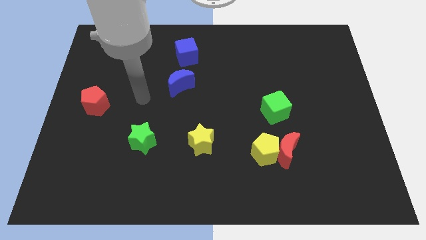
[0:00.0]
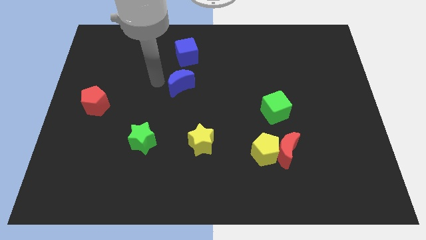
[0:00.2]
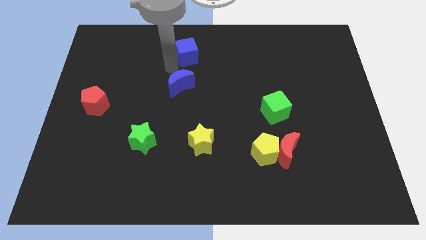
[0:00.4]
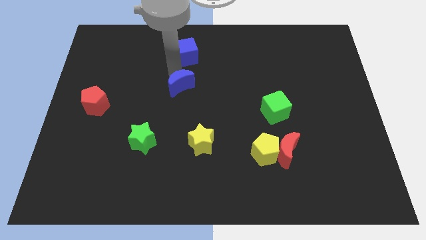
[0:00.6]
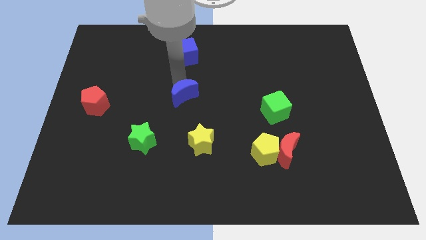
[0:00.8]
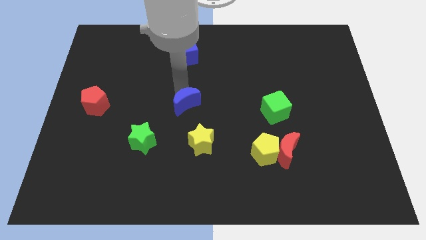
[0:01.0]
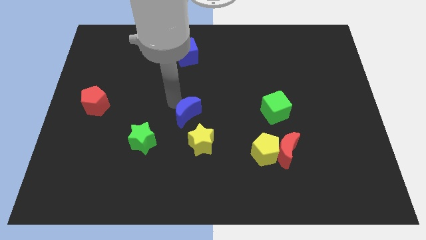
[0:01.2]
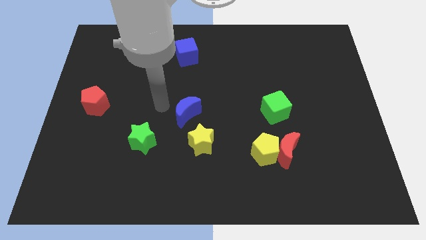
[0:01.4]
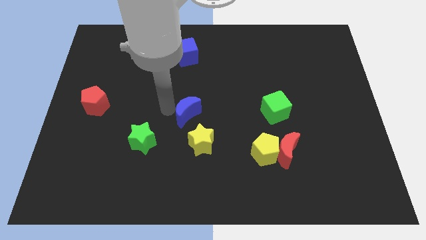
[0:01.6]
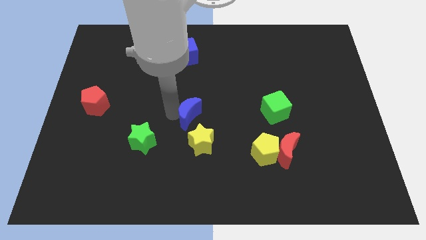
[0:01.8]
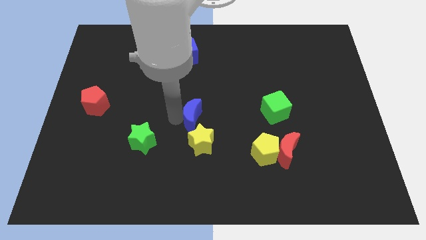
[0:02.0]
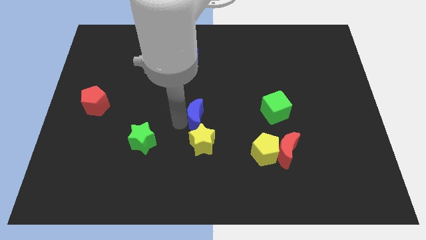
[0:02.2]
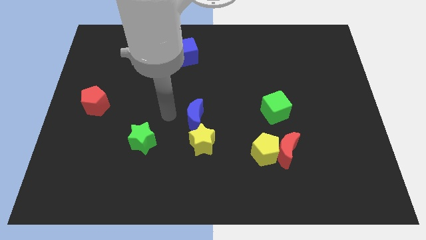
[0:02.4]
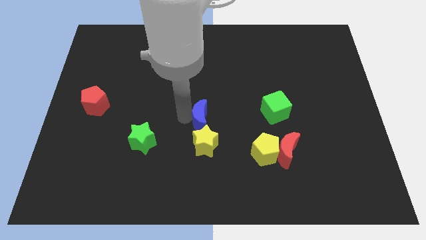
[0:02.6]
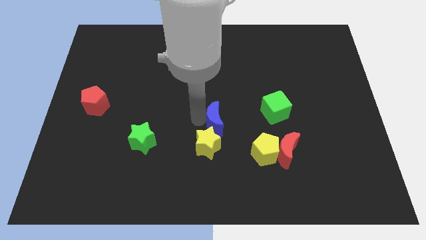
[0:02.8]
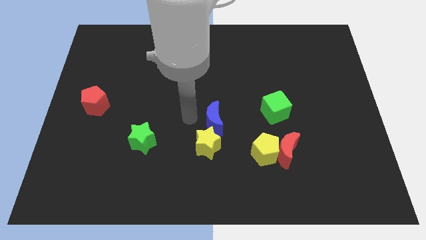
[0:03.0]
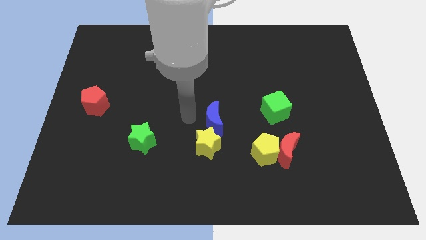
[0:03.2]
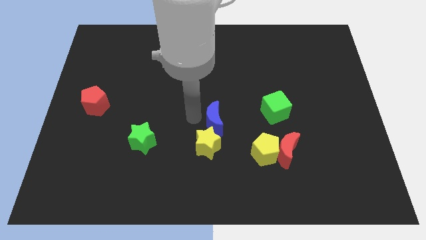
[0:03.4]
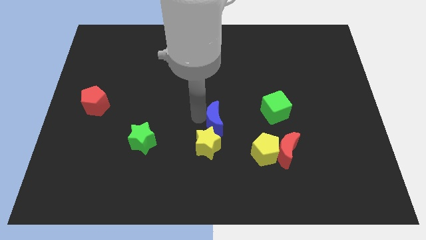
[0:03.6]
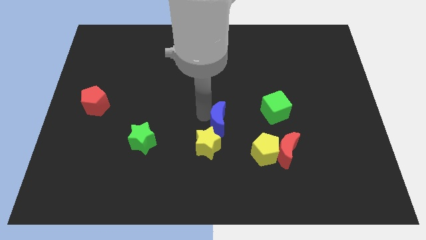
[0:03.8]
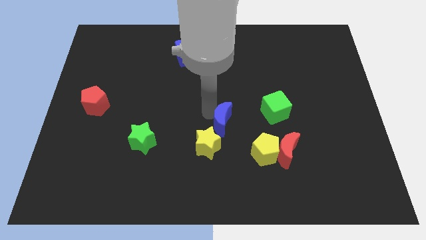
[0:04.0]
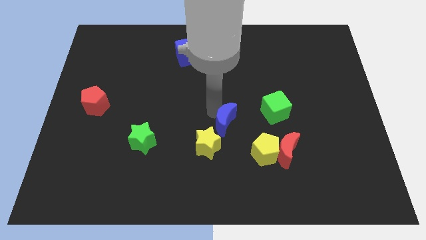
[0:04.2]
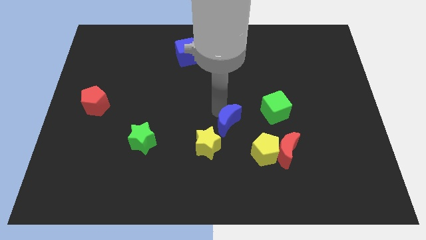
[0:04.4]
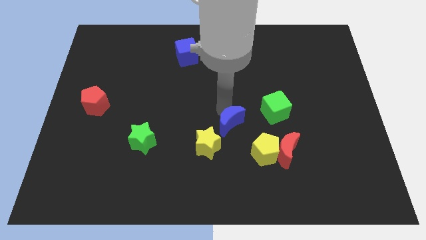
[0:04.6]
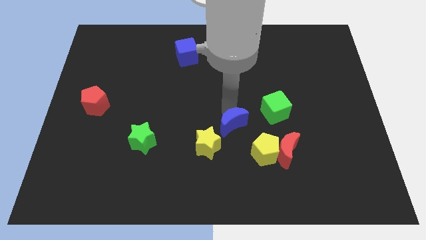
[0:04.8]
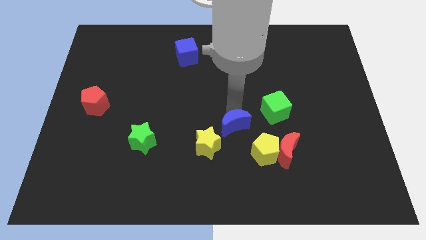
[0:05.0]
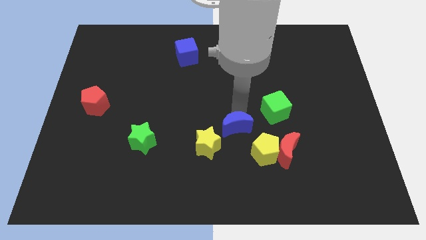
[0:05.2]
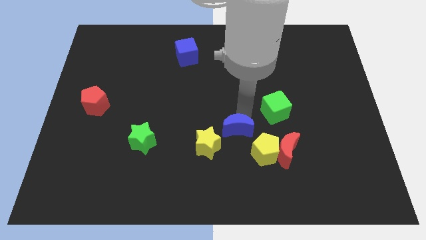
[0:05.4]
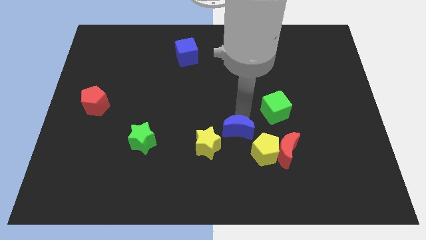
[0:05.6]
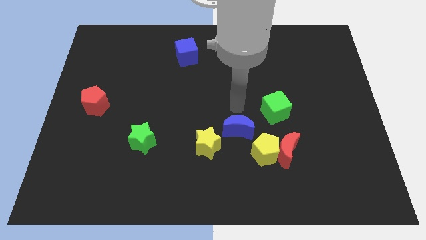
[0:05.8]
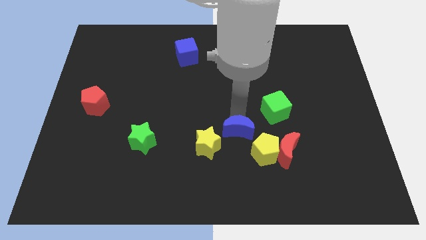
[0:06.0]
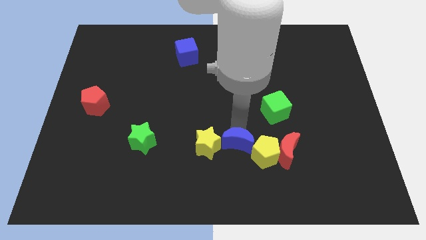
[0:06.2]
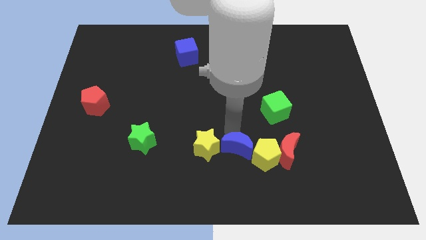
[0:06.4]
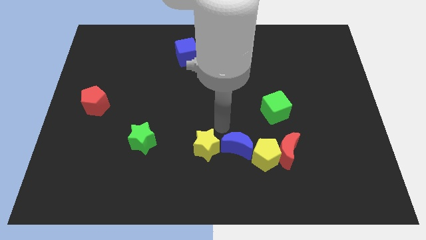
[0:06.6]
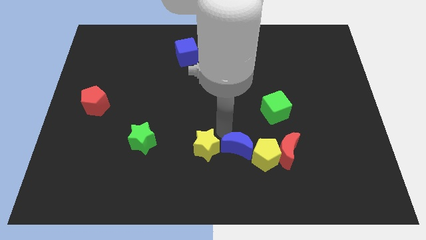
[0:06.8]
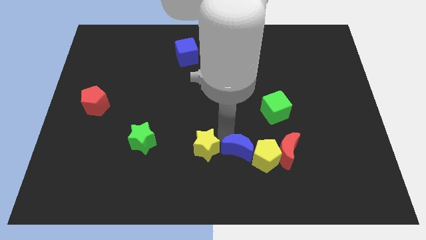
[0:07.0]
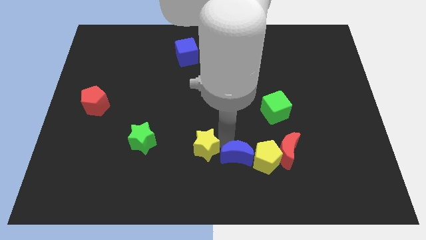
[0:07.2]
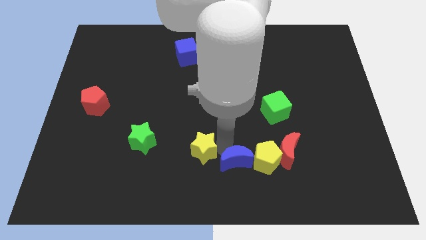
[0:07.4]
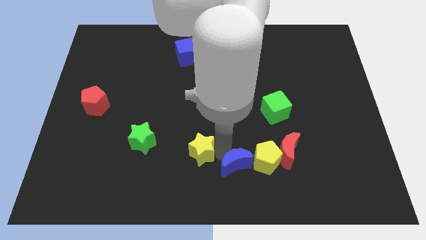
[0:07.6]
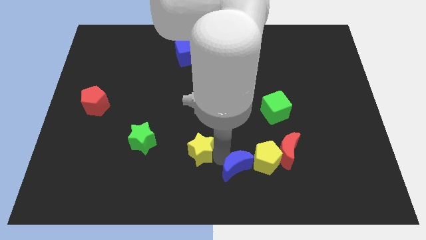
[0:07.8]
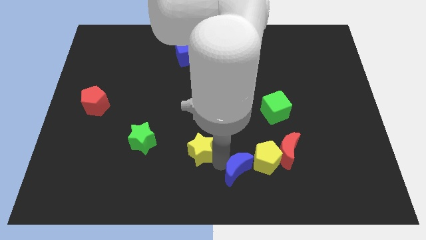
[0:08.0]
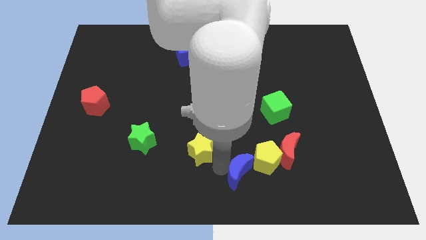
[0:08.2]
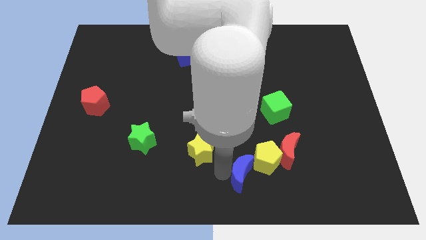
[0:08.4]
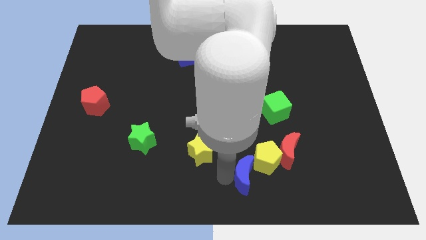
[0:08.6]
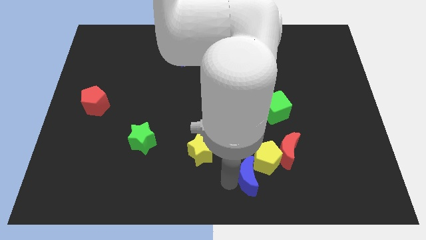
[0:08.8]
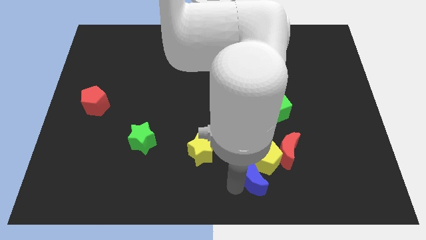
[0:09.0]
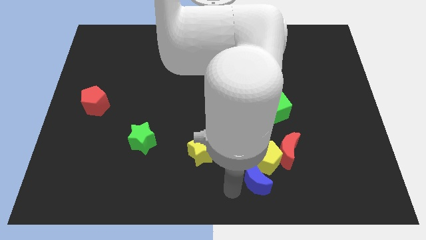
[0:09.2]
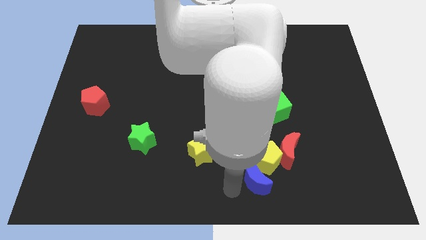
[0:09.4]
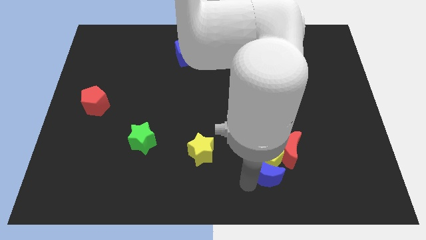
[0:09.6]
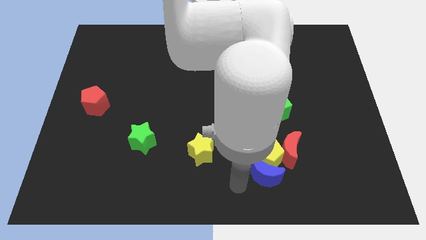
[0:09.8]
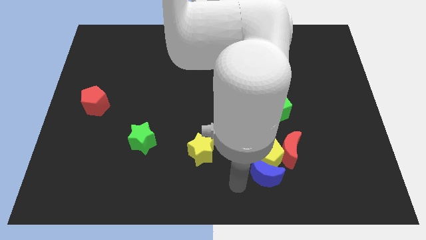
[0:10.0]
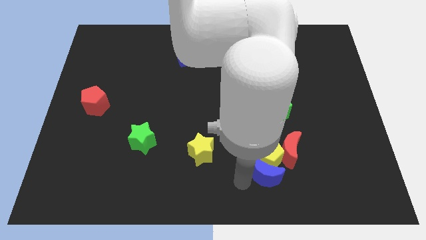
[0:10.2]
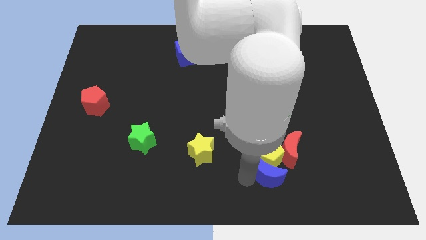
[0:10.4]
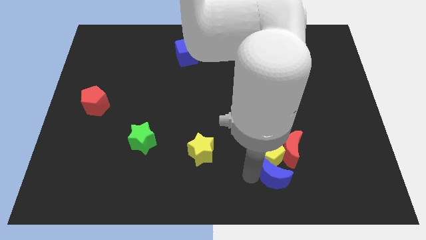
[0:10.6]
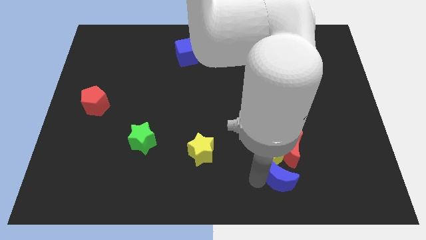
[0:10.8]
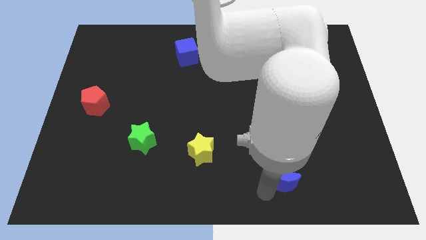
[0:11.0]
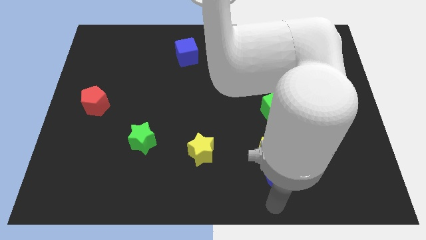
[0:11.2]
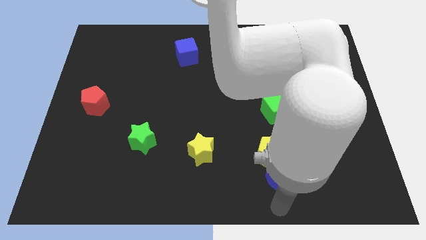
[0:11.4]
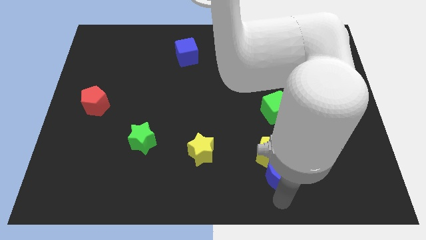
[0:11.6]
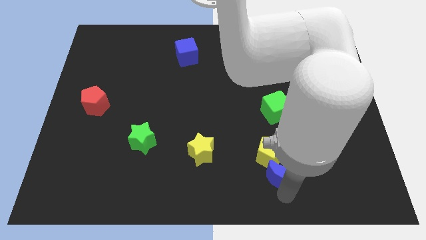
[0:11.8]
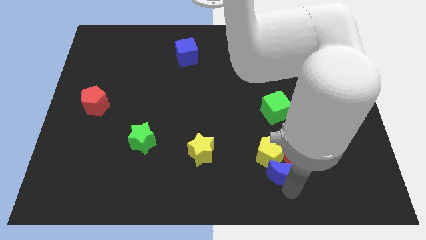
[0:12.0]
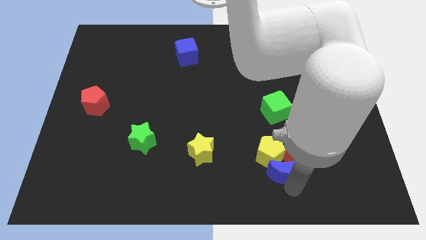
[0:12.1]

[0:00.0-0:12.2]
move the blue moon to the bottom side of the green cube

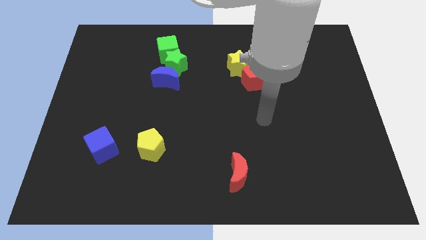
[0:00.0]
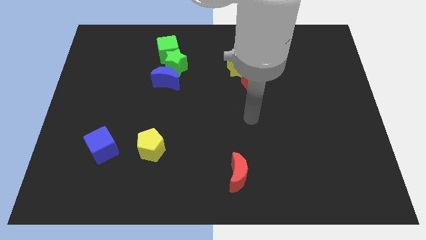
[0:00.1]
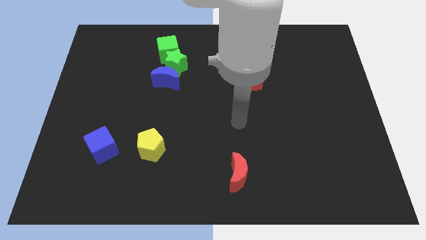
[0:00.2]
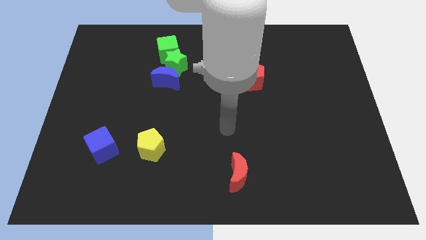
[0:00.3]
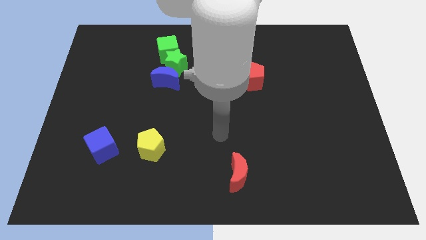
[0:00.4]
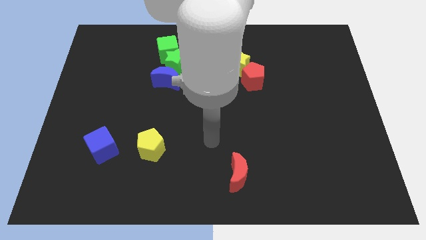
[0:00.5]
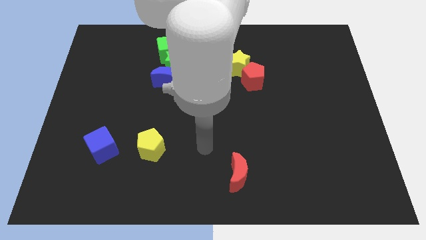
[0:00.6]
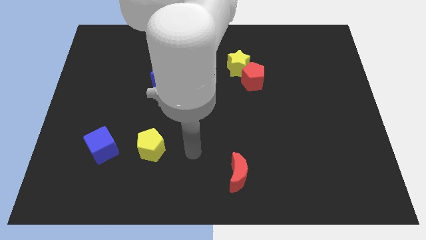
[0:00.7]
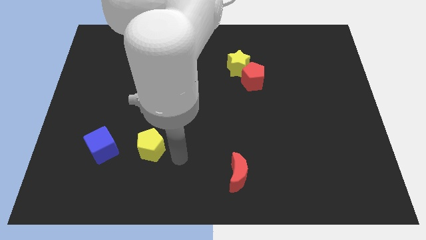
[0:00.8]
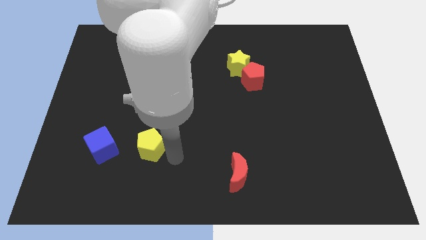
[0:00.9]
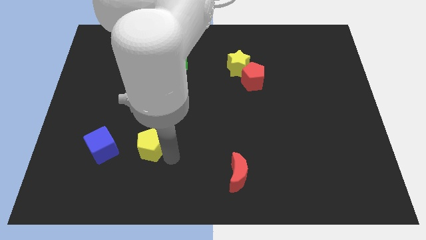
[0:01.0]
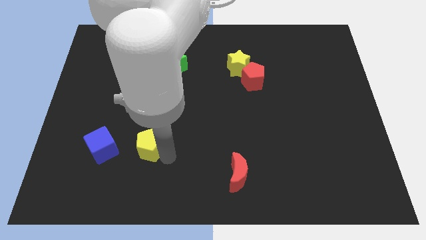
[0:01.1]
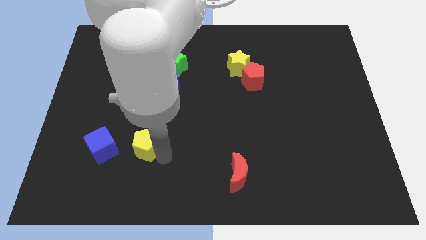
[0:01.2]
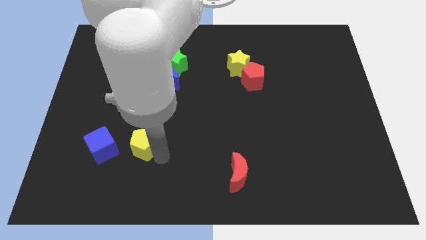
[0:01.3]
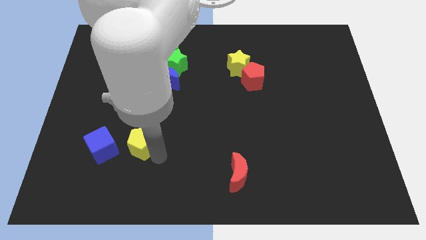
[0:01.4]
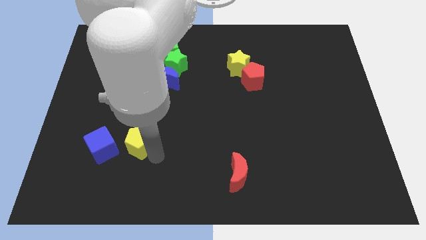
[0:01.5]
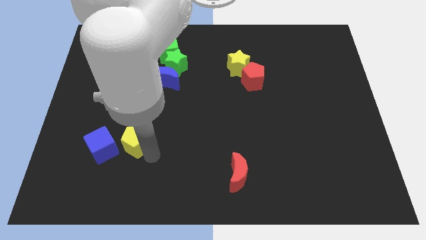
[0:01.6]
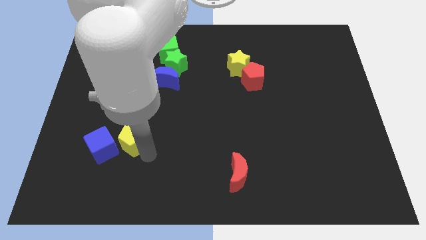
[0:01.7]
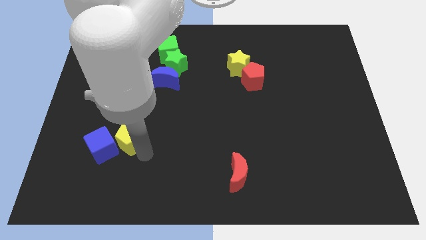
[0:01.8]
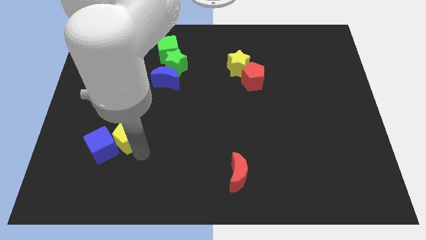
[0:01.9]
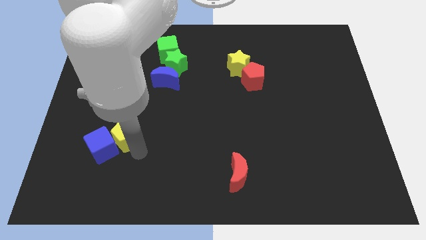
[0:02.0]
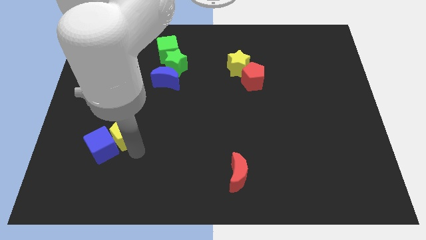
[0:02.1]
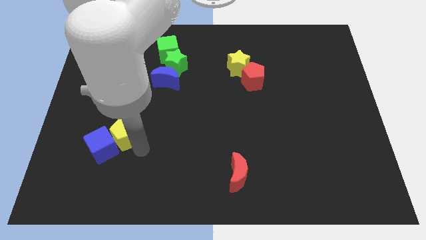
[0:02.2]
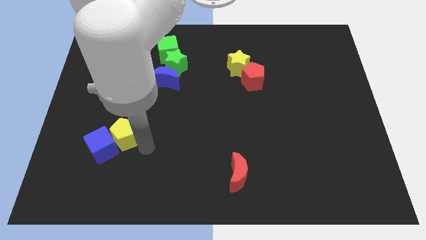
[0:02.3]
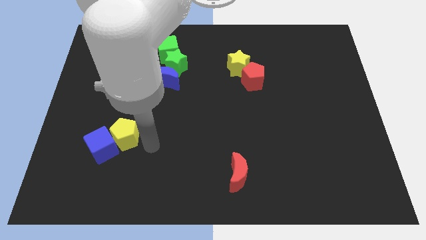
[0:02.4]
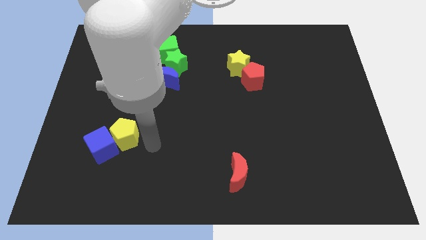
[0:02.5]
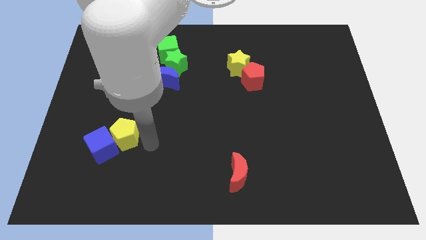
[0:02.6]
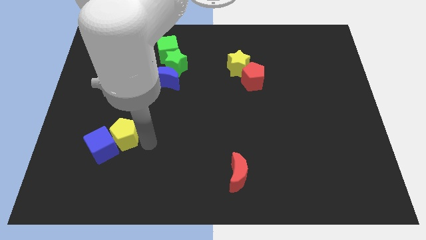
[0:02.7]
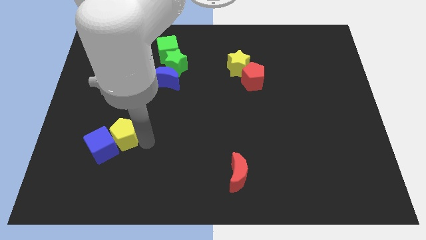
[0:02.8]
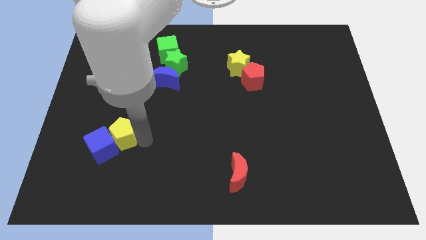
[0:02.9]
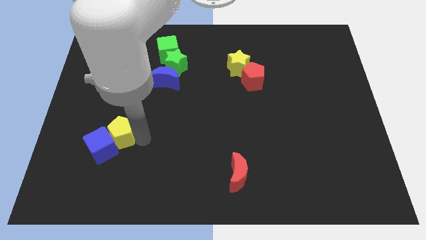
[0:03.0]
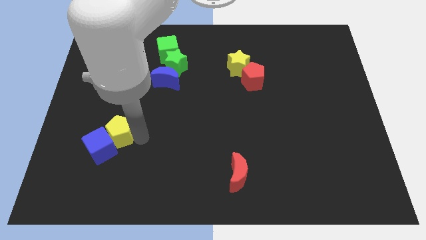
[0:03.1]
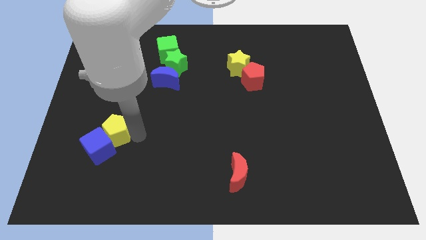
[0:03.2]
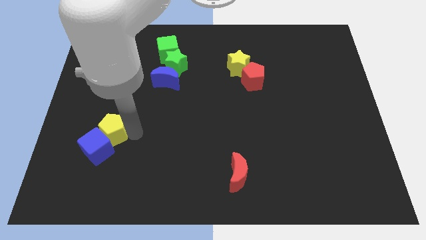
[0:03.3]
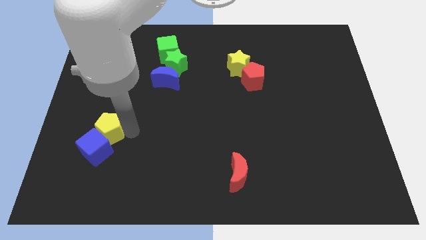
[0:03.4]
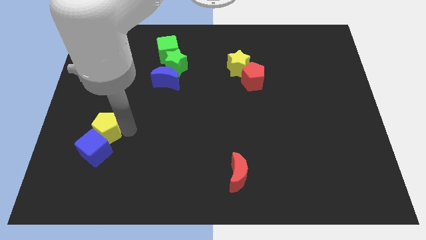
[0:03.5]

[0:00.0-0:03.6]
move the yellow pentagon to the top left of the blue cube
